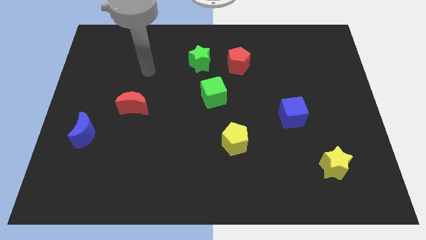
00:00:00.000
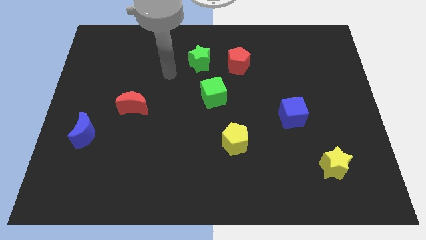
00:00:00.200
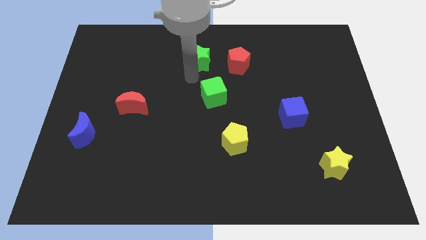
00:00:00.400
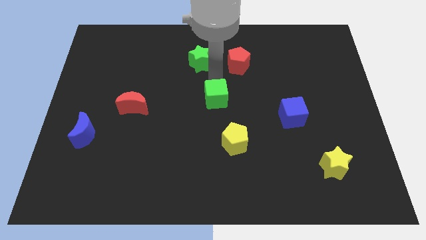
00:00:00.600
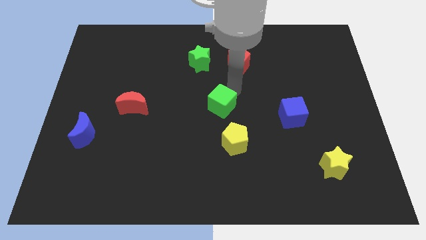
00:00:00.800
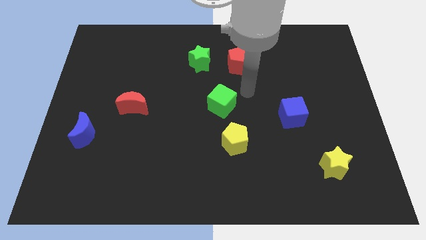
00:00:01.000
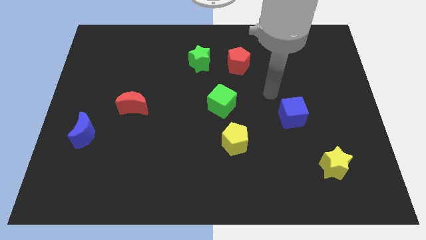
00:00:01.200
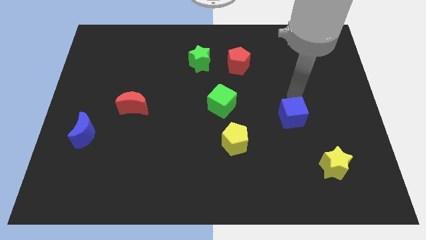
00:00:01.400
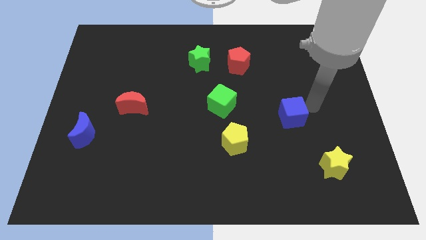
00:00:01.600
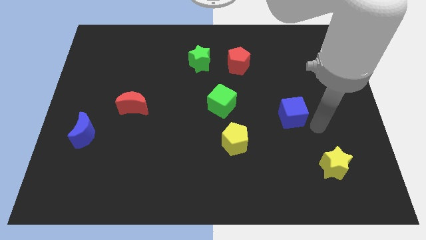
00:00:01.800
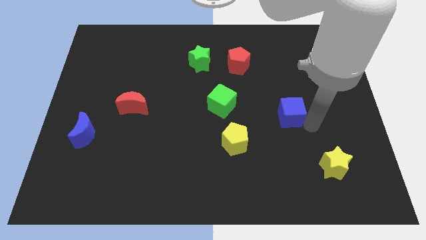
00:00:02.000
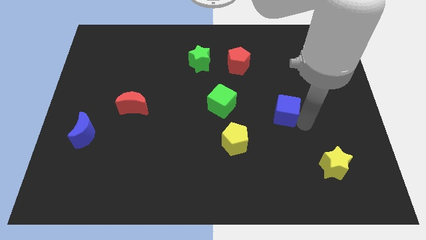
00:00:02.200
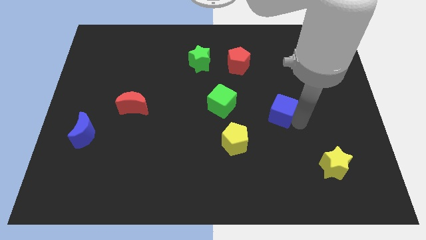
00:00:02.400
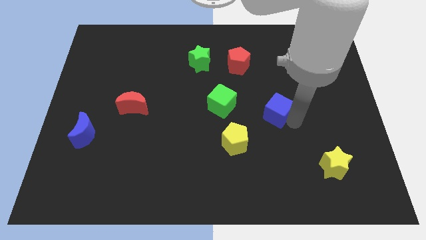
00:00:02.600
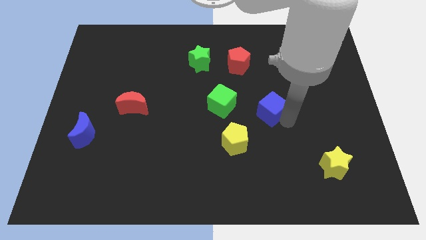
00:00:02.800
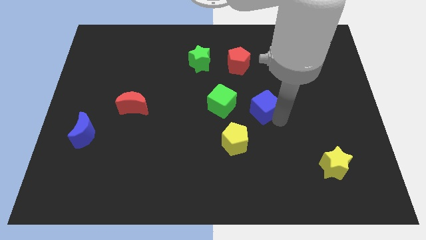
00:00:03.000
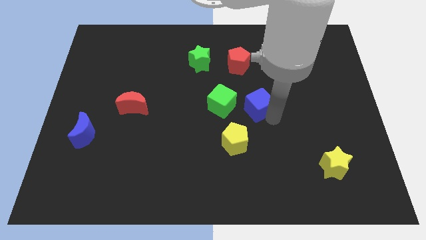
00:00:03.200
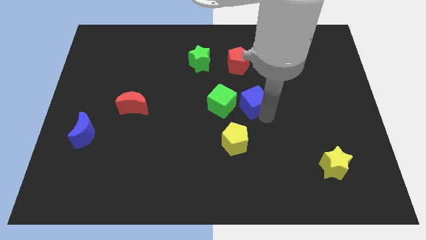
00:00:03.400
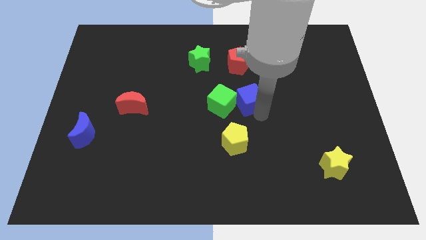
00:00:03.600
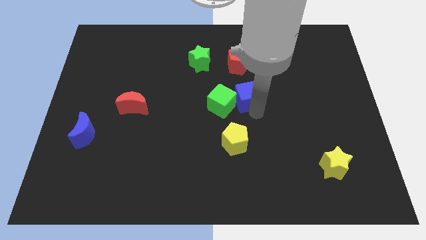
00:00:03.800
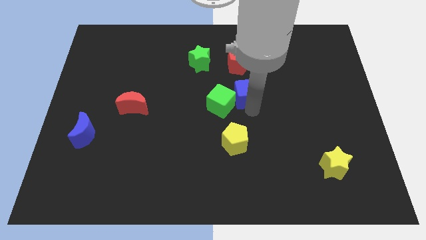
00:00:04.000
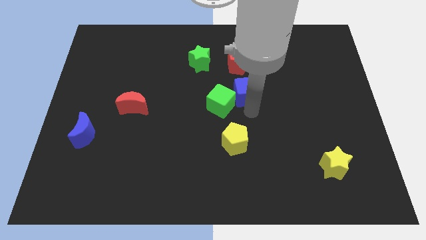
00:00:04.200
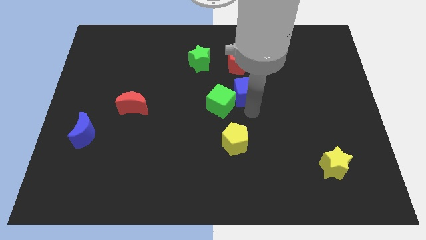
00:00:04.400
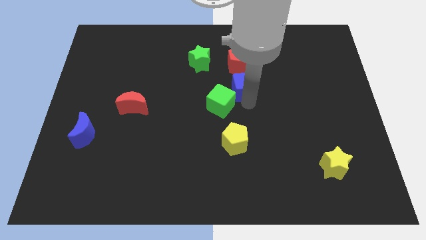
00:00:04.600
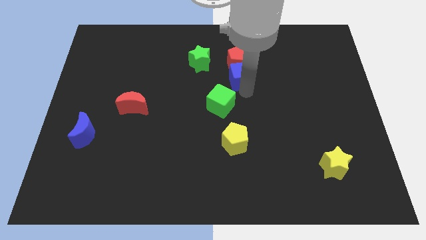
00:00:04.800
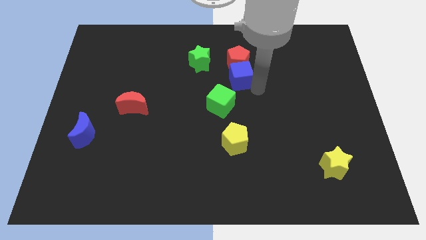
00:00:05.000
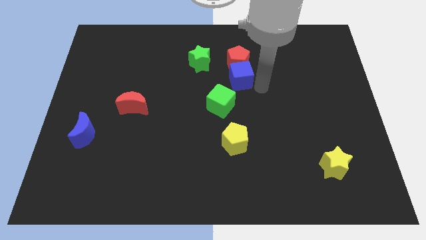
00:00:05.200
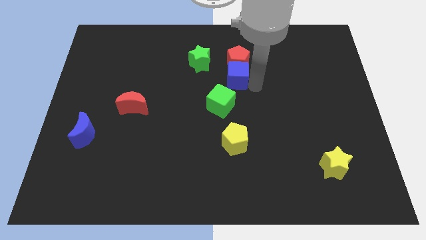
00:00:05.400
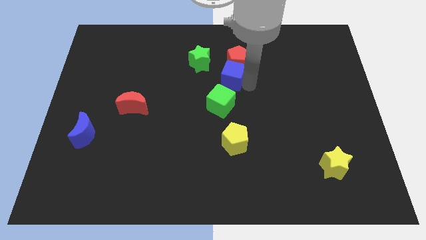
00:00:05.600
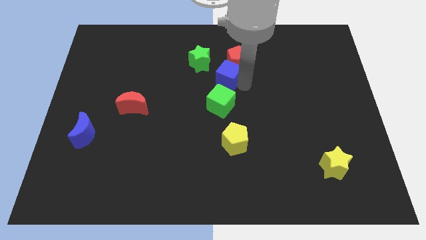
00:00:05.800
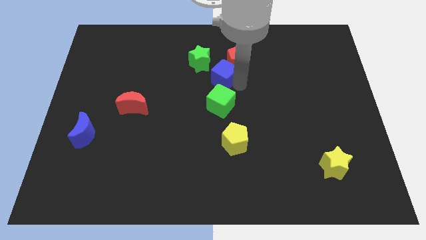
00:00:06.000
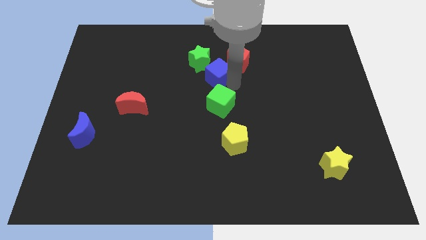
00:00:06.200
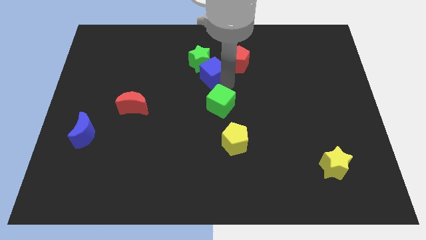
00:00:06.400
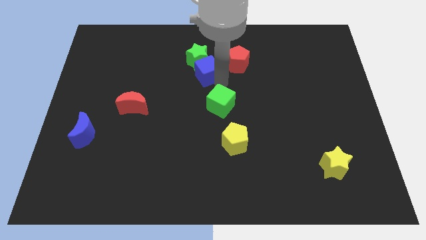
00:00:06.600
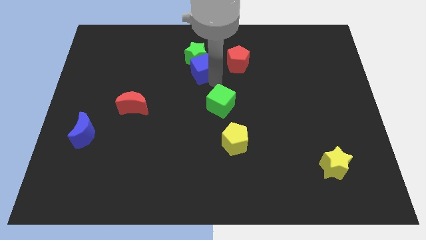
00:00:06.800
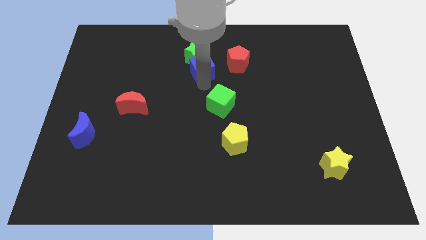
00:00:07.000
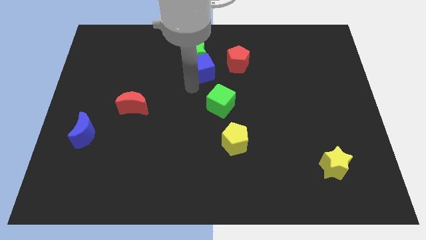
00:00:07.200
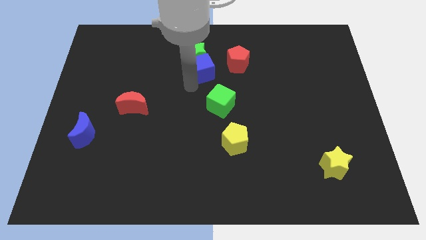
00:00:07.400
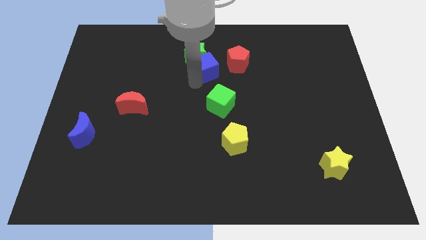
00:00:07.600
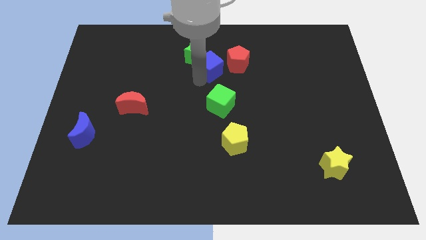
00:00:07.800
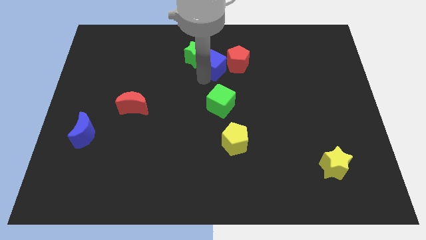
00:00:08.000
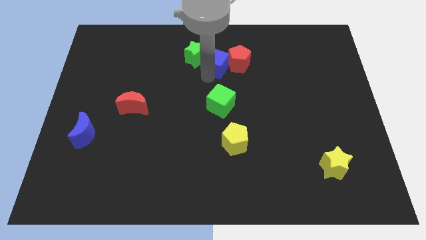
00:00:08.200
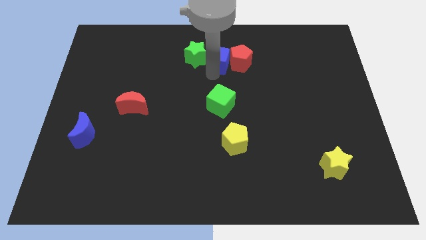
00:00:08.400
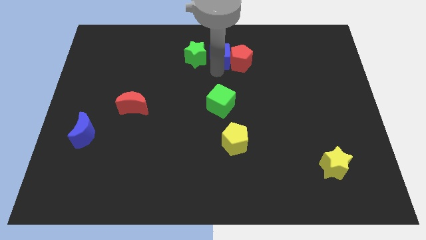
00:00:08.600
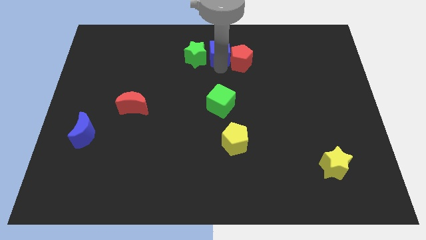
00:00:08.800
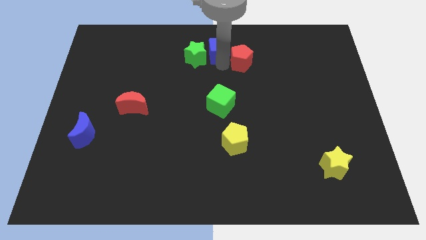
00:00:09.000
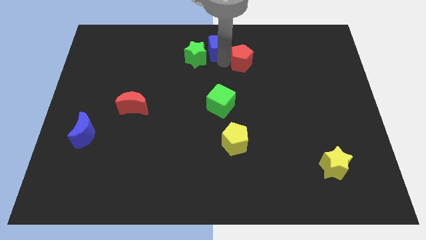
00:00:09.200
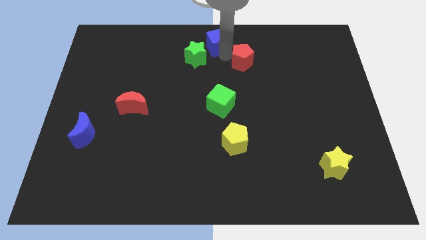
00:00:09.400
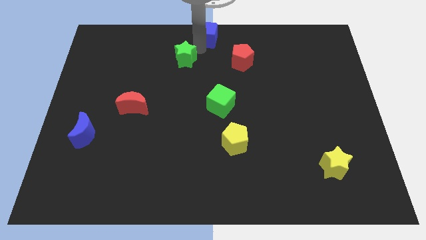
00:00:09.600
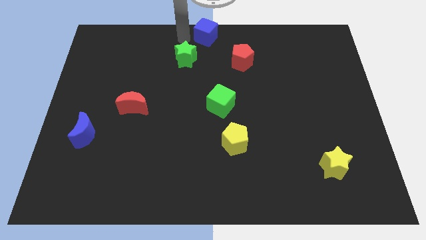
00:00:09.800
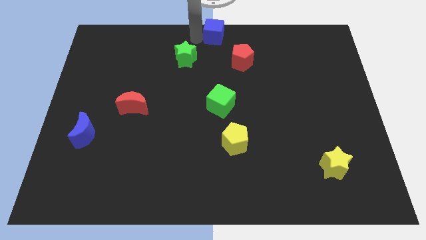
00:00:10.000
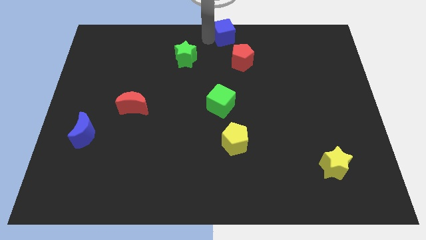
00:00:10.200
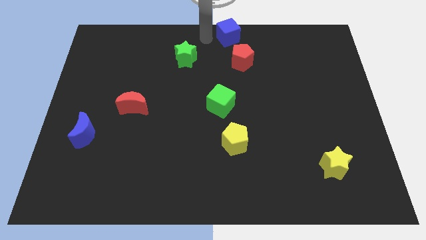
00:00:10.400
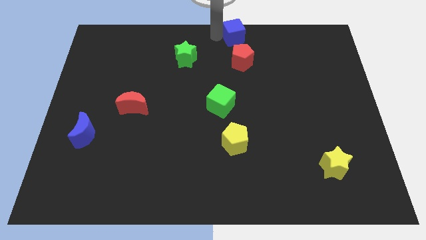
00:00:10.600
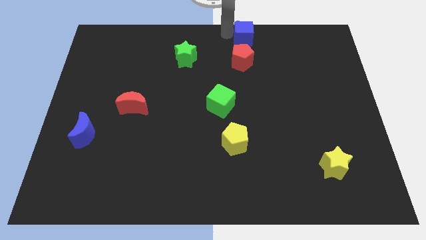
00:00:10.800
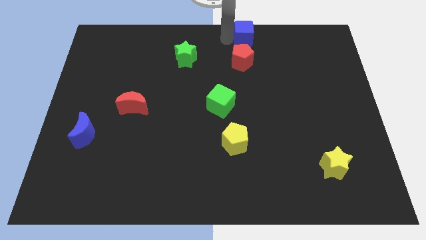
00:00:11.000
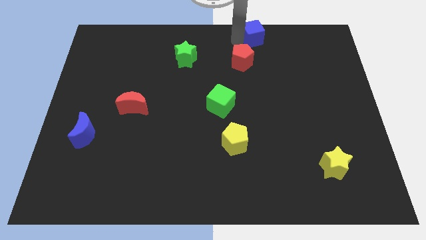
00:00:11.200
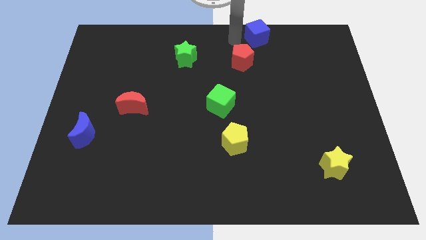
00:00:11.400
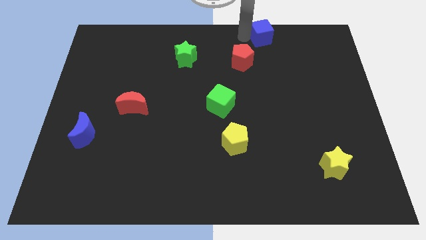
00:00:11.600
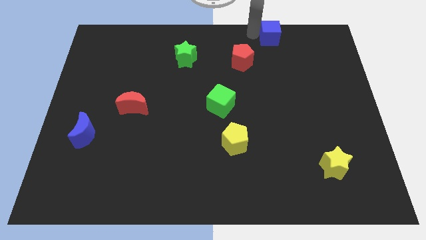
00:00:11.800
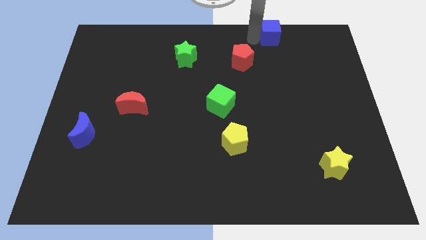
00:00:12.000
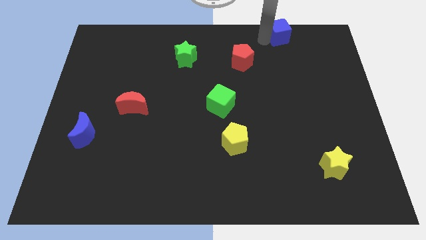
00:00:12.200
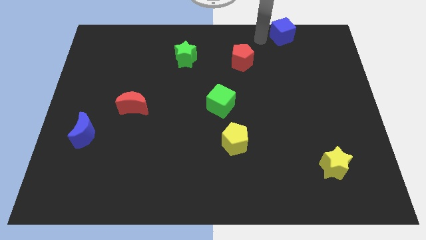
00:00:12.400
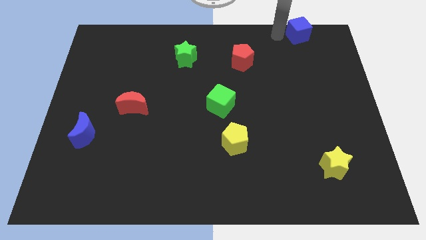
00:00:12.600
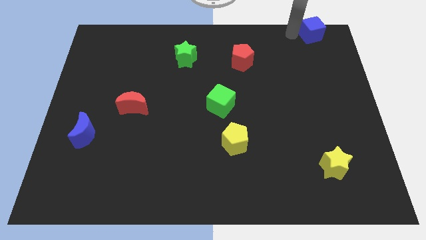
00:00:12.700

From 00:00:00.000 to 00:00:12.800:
move the blue cube to the top right of the board
